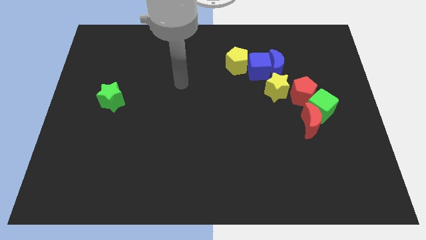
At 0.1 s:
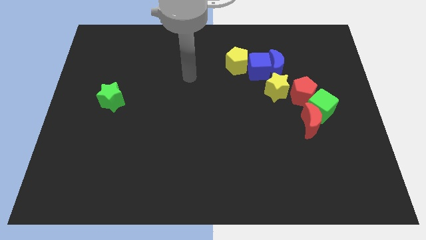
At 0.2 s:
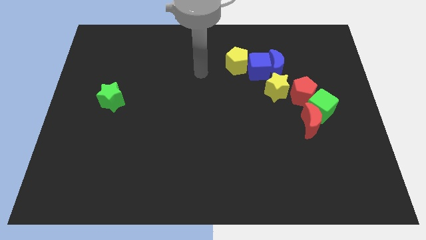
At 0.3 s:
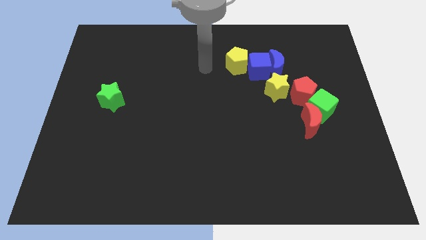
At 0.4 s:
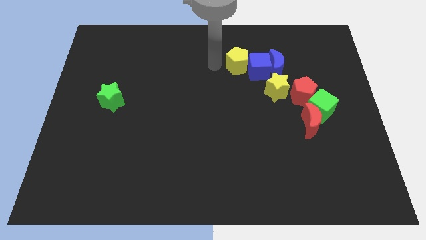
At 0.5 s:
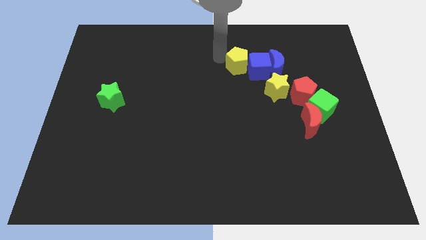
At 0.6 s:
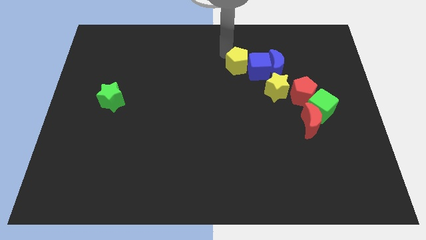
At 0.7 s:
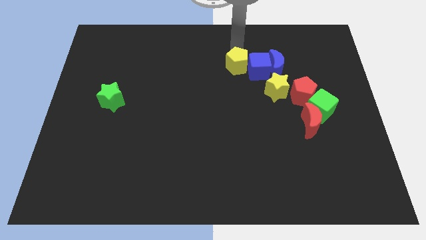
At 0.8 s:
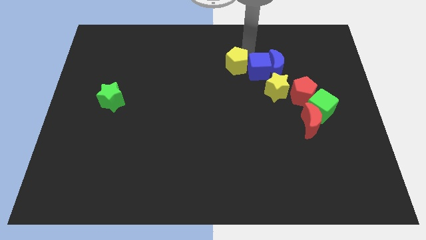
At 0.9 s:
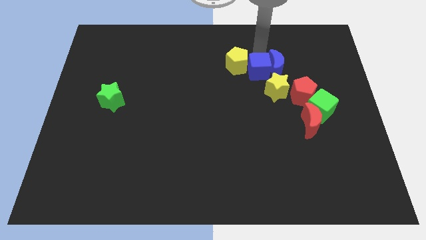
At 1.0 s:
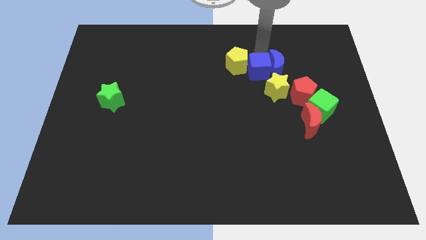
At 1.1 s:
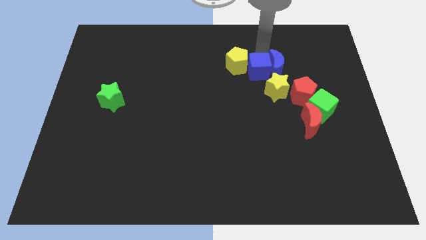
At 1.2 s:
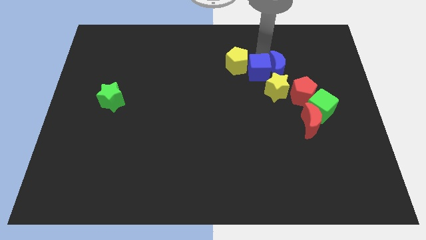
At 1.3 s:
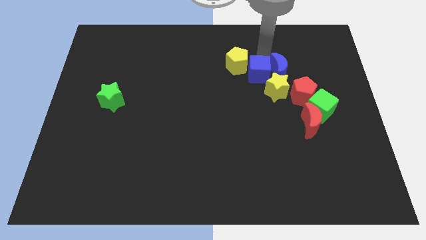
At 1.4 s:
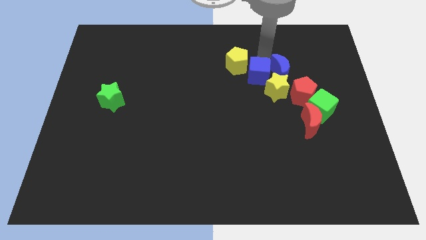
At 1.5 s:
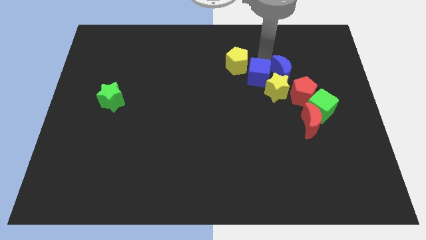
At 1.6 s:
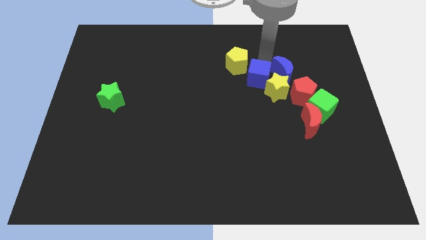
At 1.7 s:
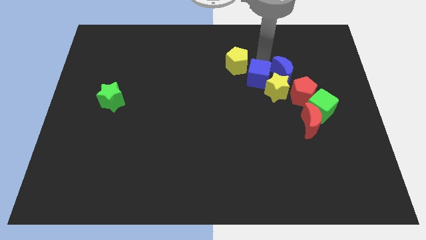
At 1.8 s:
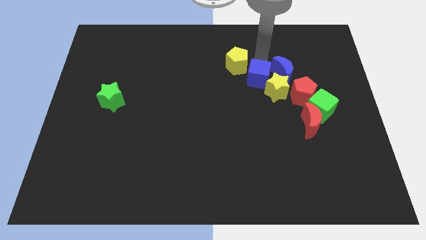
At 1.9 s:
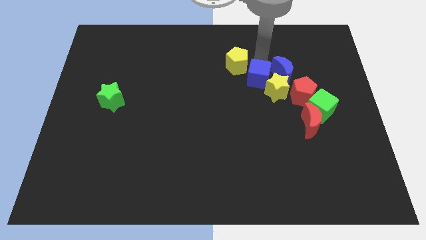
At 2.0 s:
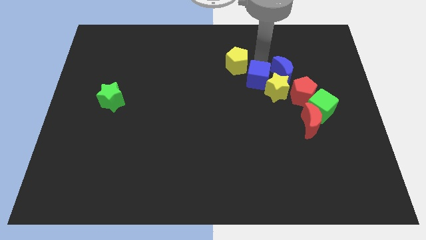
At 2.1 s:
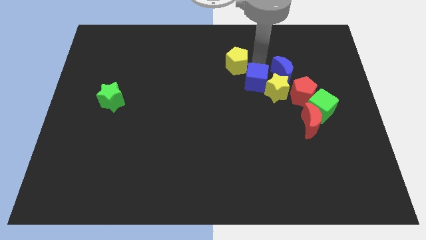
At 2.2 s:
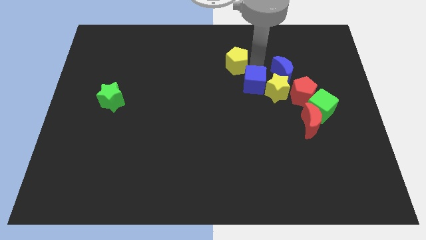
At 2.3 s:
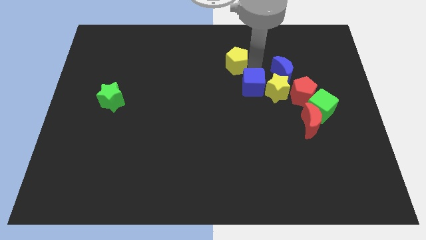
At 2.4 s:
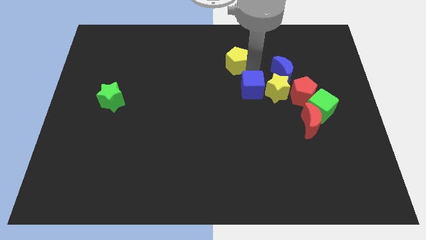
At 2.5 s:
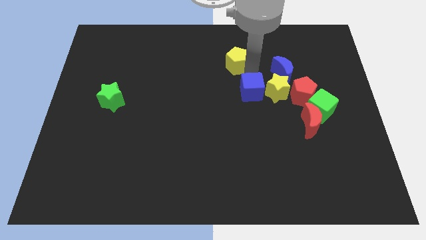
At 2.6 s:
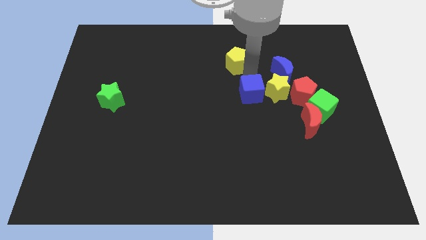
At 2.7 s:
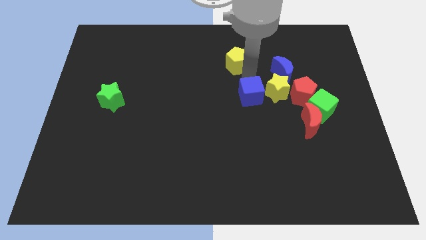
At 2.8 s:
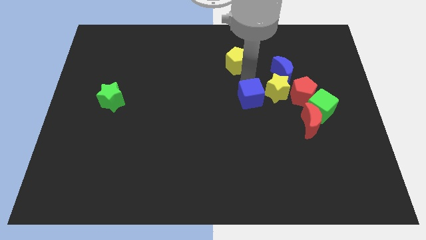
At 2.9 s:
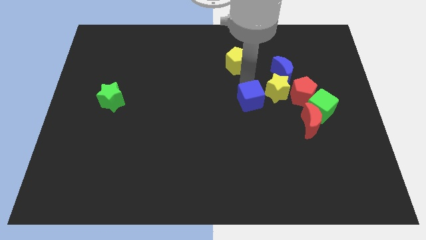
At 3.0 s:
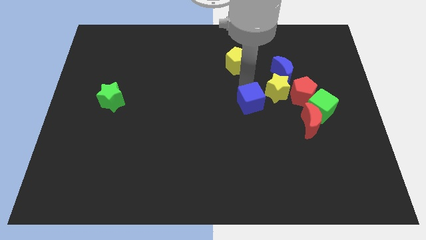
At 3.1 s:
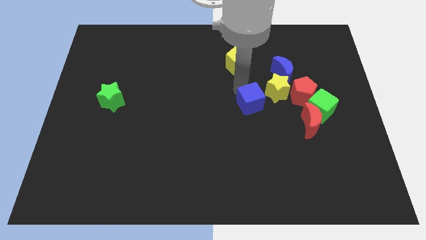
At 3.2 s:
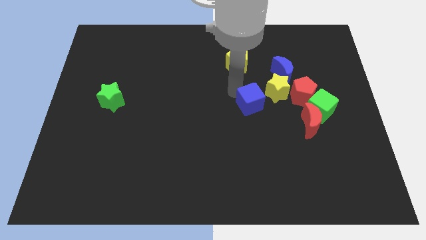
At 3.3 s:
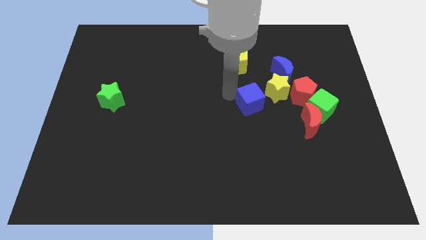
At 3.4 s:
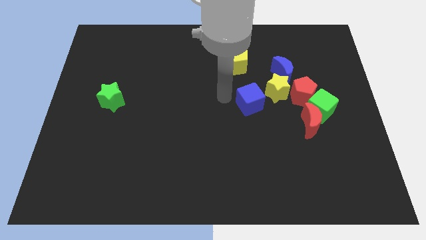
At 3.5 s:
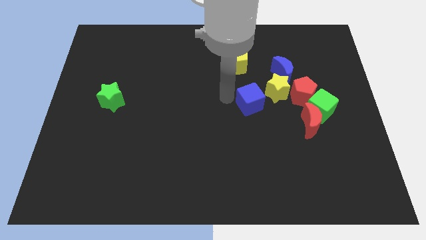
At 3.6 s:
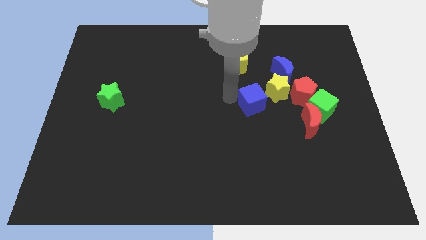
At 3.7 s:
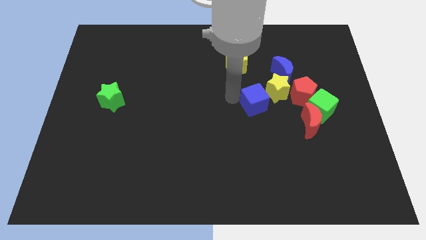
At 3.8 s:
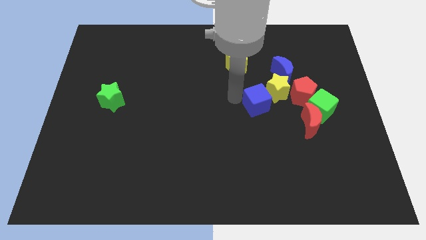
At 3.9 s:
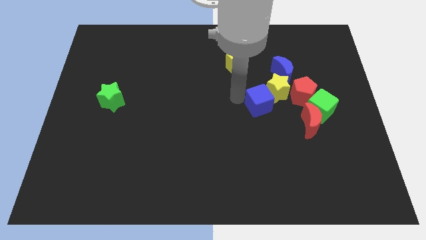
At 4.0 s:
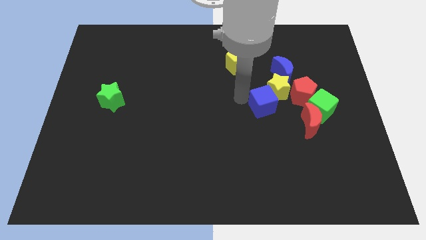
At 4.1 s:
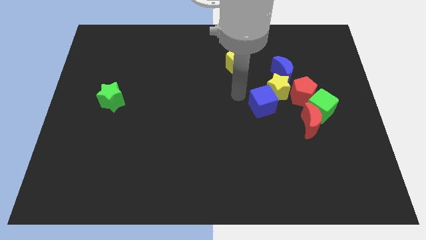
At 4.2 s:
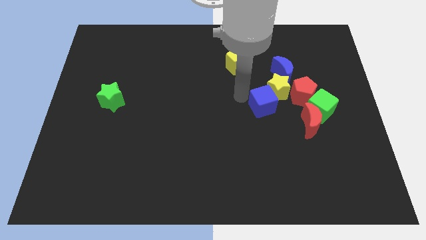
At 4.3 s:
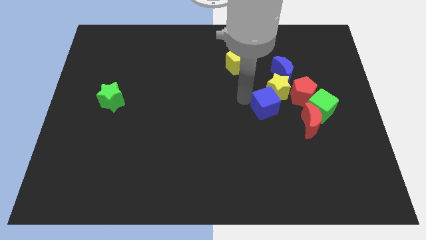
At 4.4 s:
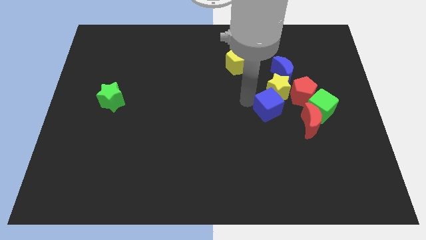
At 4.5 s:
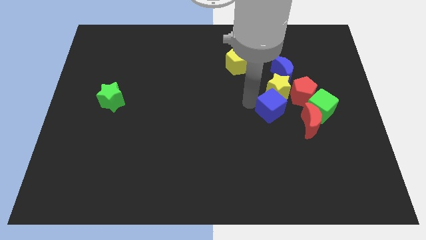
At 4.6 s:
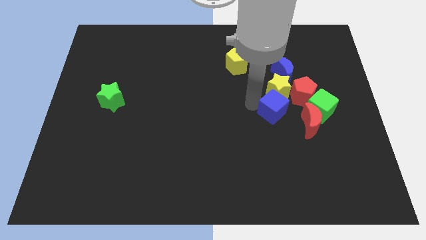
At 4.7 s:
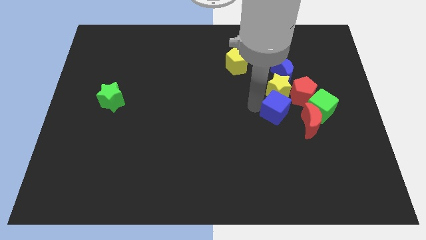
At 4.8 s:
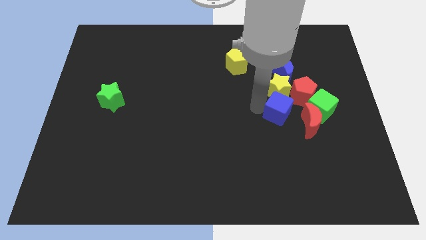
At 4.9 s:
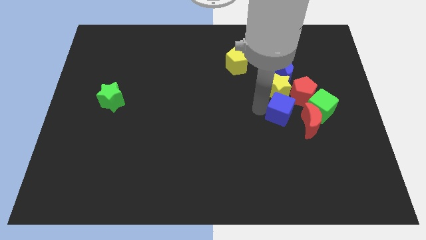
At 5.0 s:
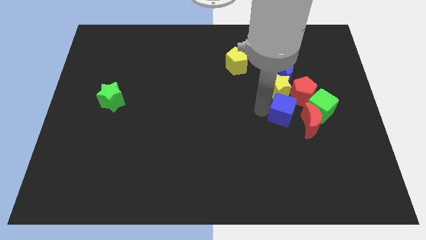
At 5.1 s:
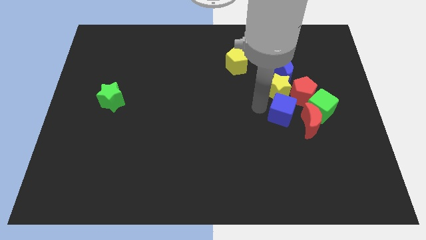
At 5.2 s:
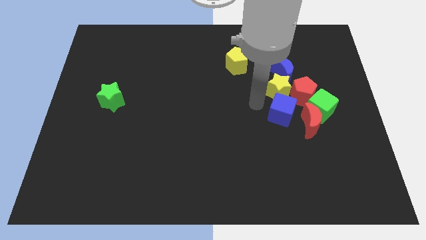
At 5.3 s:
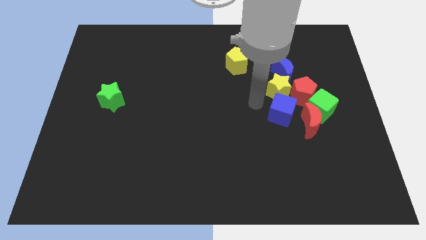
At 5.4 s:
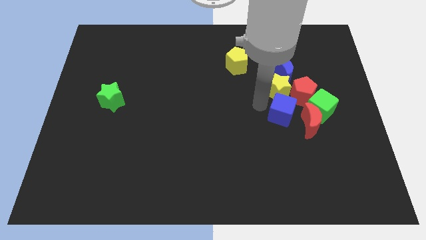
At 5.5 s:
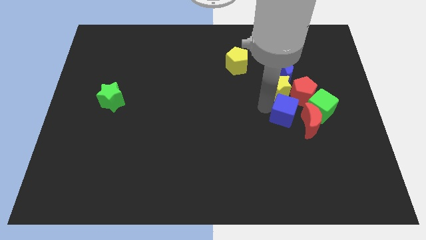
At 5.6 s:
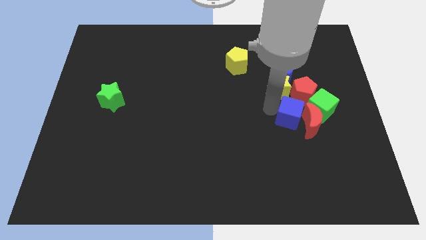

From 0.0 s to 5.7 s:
put the blue cube towards the red moon

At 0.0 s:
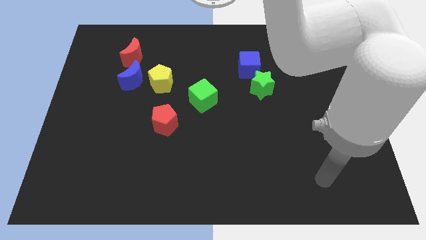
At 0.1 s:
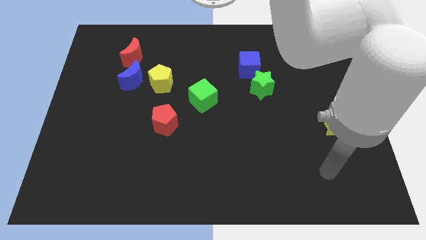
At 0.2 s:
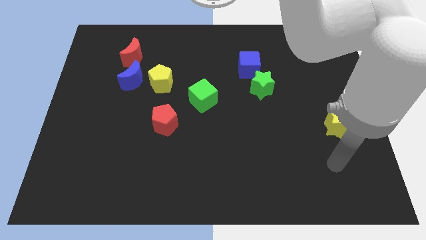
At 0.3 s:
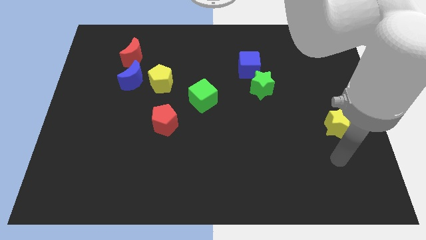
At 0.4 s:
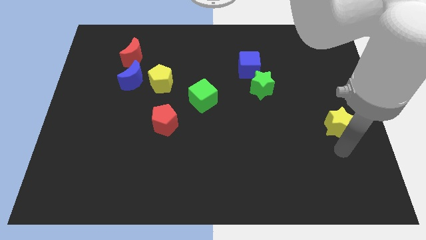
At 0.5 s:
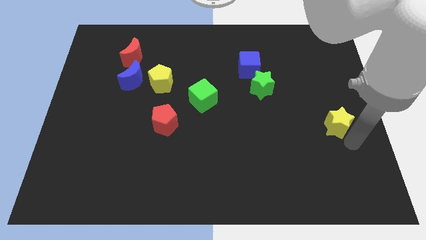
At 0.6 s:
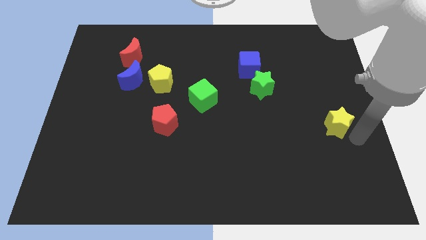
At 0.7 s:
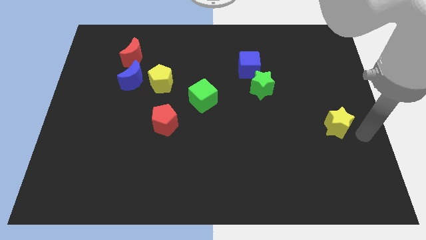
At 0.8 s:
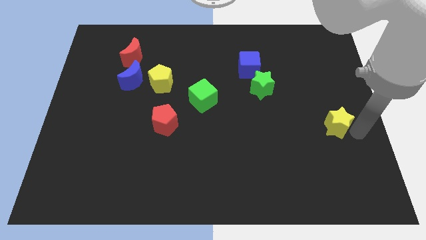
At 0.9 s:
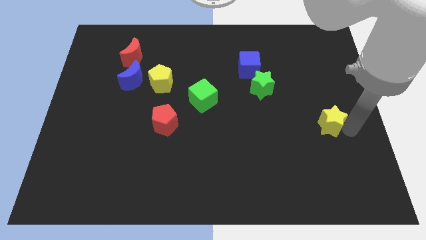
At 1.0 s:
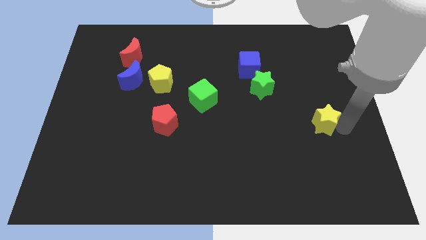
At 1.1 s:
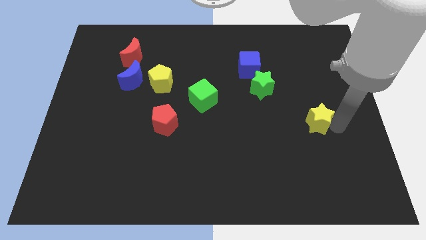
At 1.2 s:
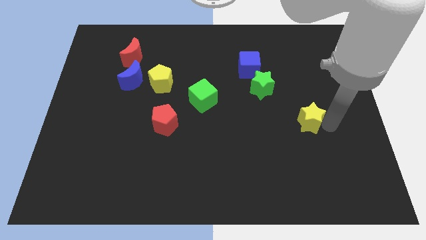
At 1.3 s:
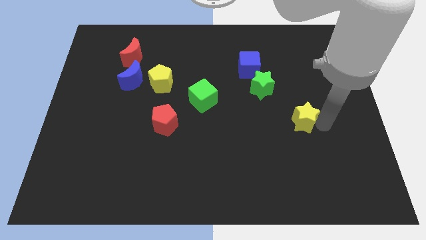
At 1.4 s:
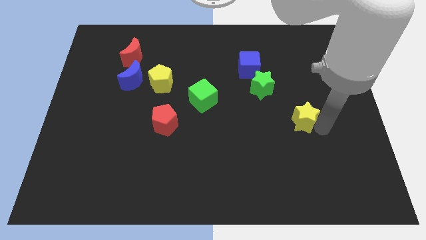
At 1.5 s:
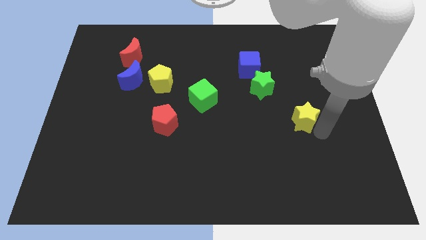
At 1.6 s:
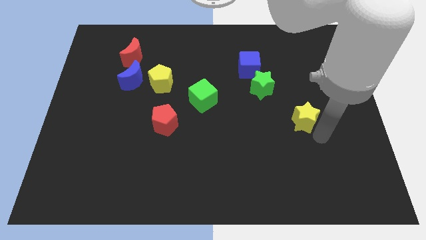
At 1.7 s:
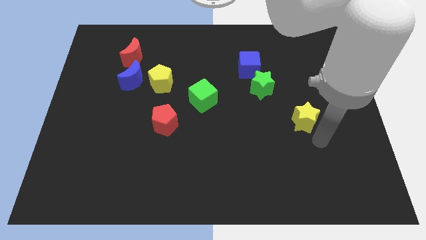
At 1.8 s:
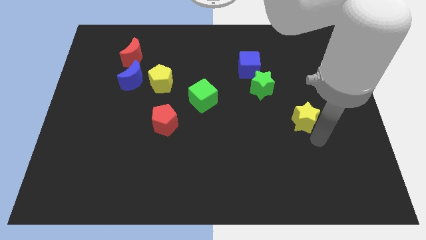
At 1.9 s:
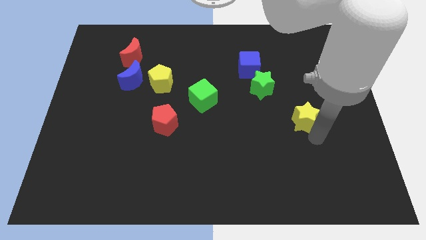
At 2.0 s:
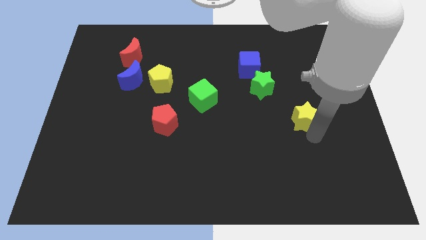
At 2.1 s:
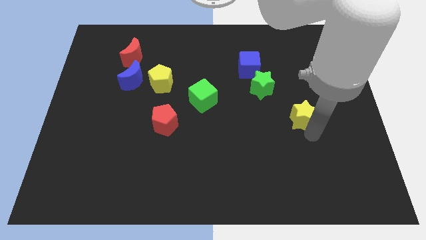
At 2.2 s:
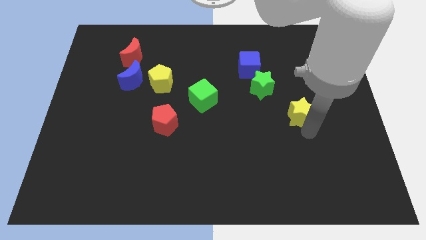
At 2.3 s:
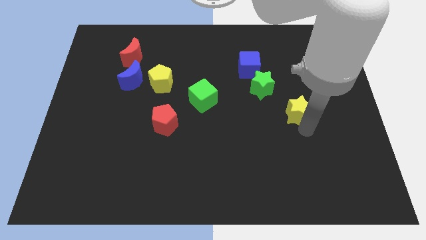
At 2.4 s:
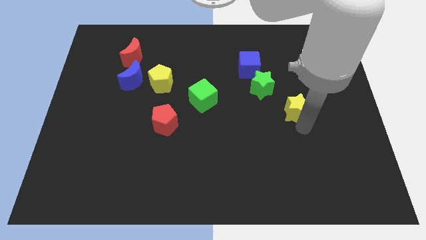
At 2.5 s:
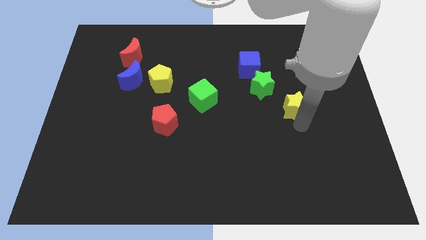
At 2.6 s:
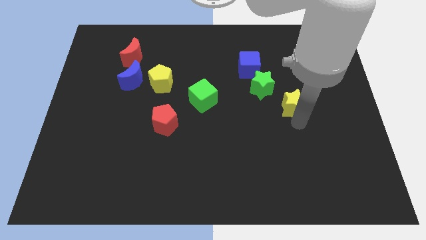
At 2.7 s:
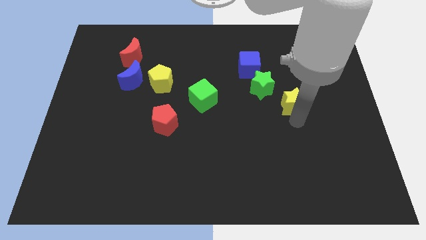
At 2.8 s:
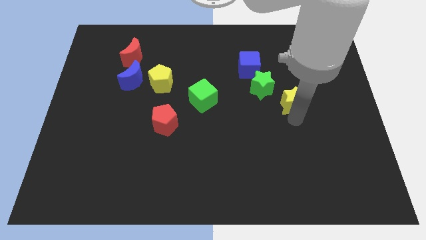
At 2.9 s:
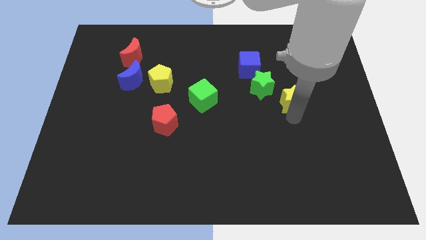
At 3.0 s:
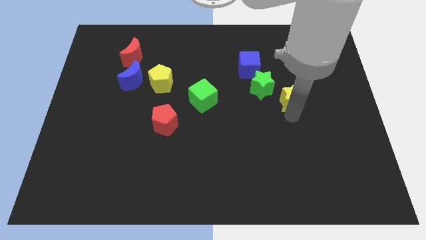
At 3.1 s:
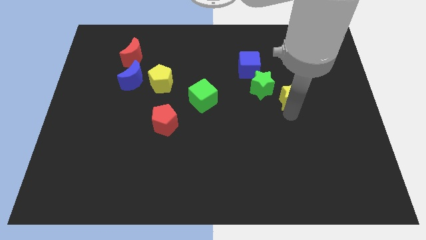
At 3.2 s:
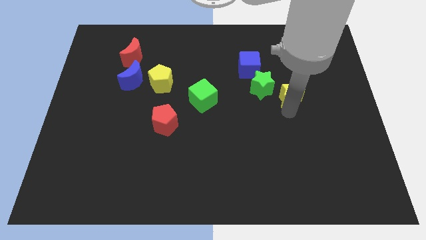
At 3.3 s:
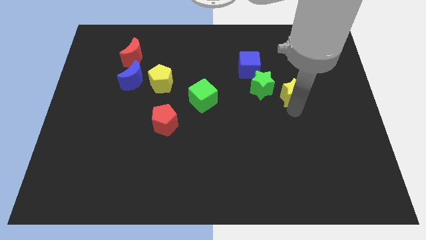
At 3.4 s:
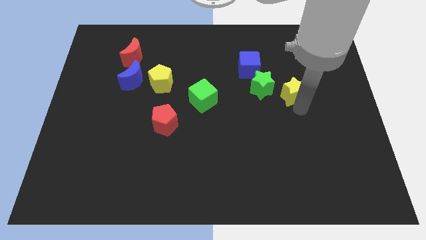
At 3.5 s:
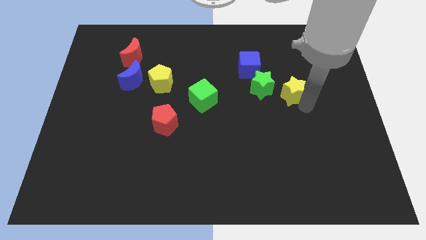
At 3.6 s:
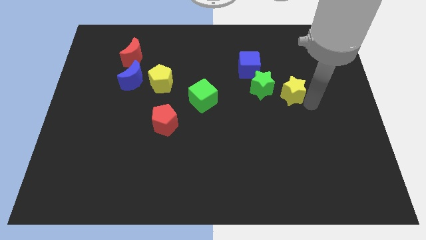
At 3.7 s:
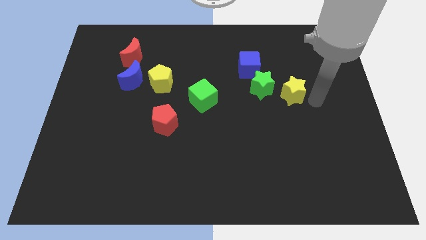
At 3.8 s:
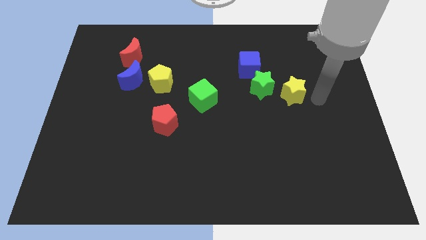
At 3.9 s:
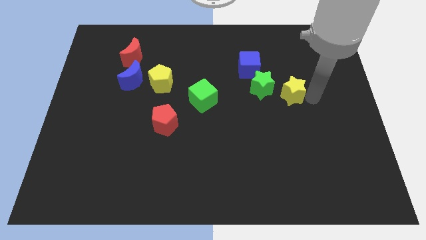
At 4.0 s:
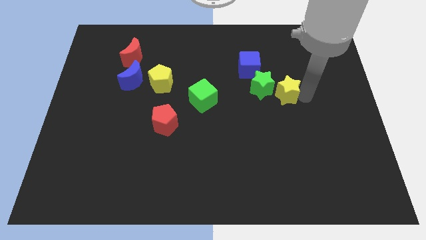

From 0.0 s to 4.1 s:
move the yellow star towards the green star
